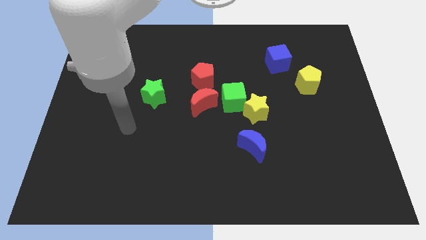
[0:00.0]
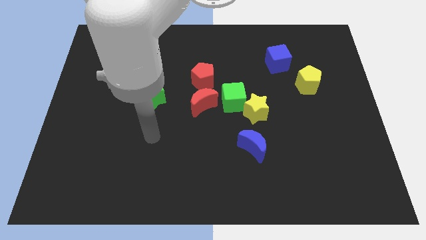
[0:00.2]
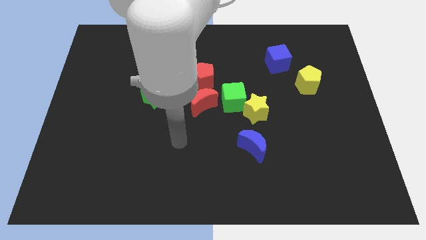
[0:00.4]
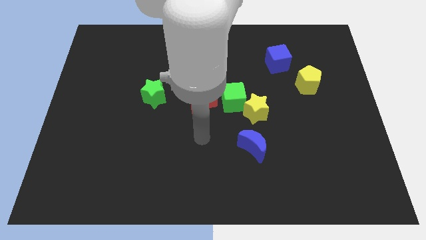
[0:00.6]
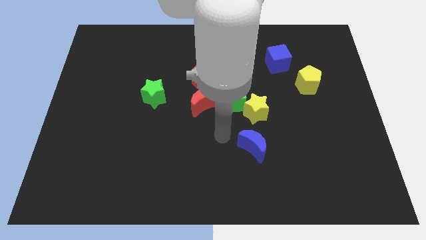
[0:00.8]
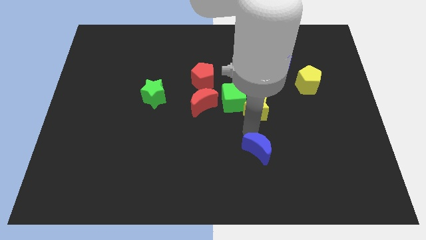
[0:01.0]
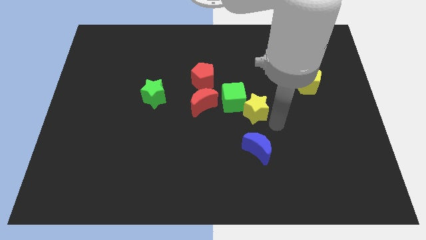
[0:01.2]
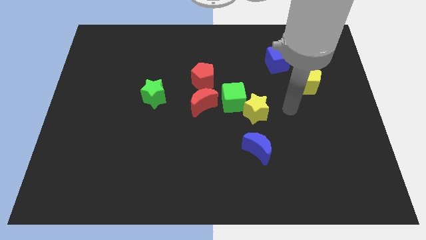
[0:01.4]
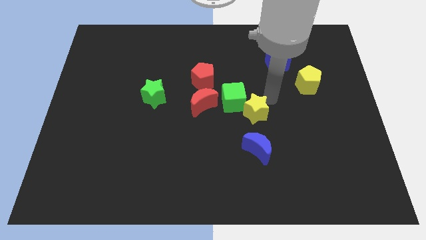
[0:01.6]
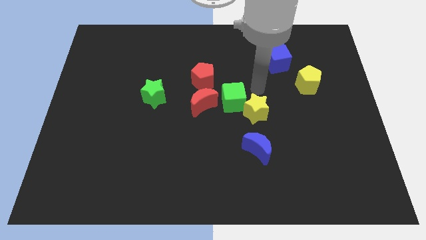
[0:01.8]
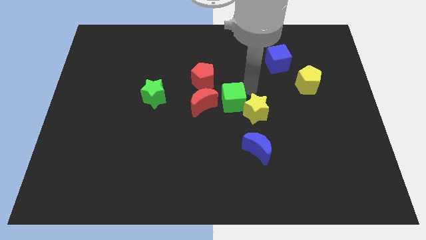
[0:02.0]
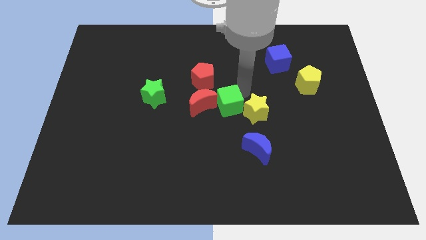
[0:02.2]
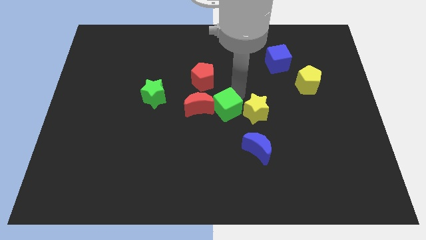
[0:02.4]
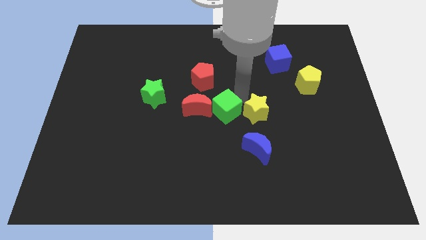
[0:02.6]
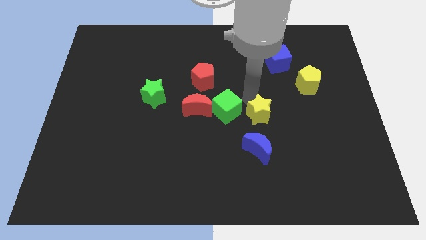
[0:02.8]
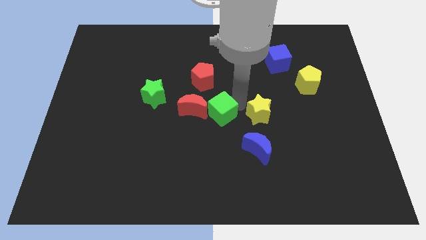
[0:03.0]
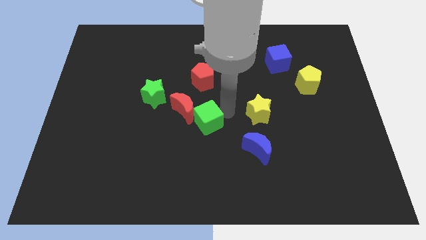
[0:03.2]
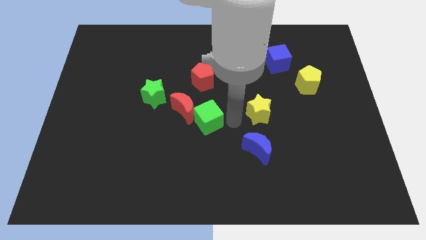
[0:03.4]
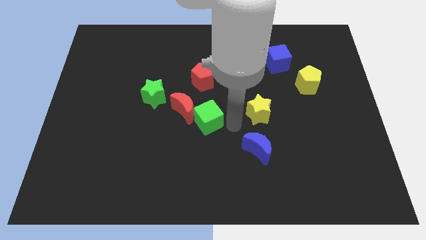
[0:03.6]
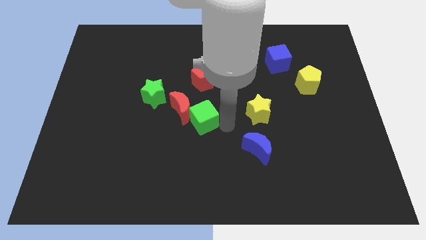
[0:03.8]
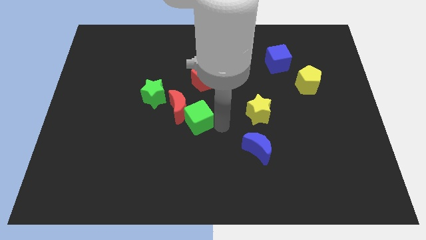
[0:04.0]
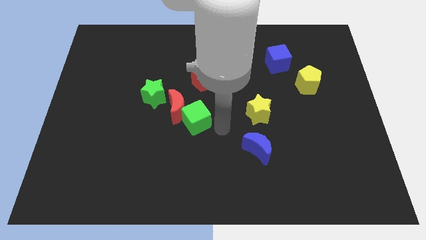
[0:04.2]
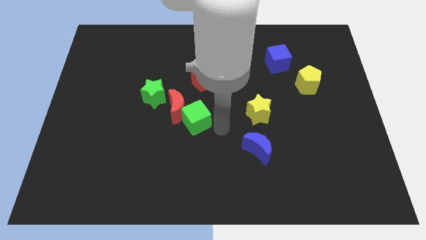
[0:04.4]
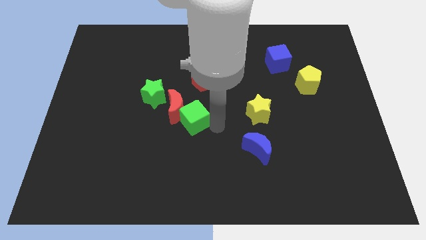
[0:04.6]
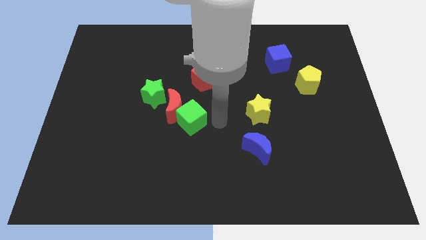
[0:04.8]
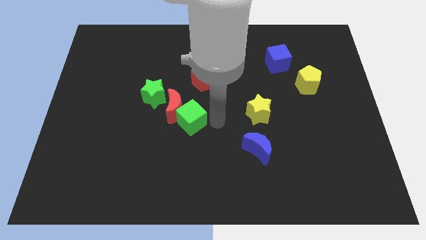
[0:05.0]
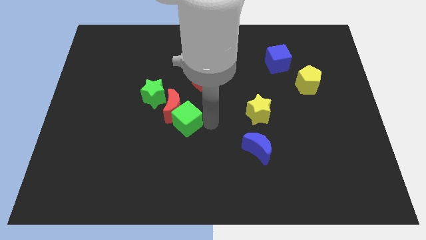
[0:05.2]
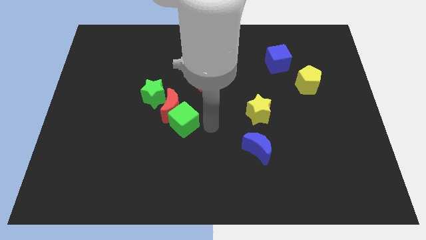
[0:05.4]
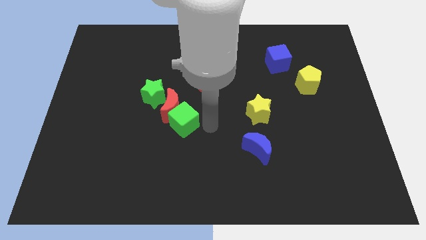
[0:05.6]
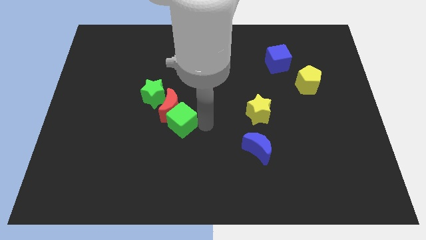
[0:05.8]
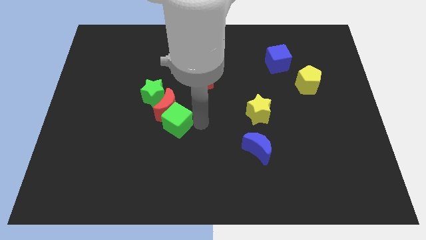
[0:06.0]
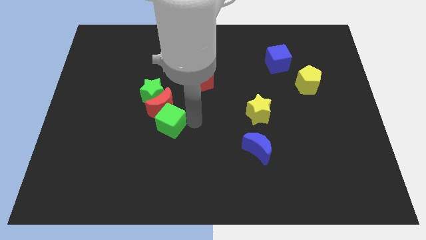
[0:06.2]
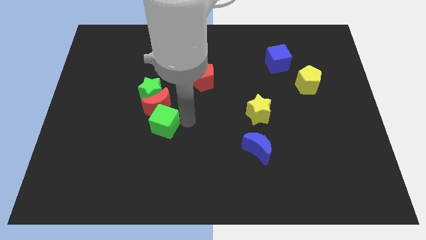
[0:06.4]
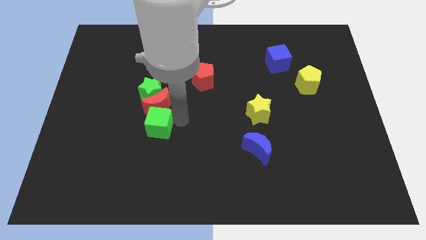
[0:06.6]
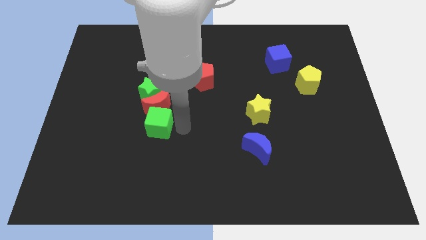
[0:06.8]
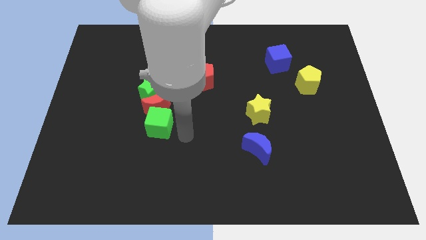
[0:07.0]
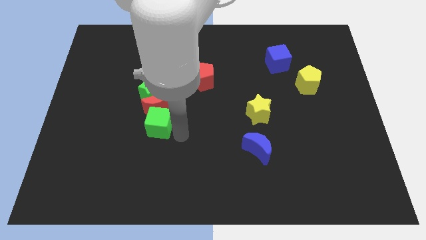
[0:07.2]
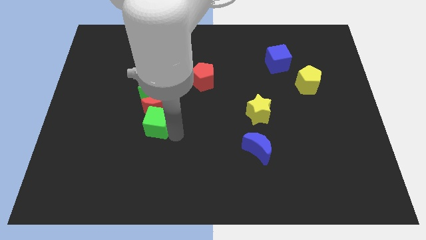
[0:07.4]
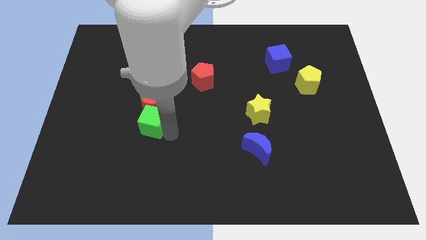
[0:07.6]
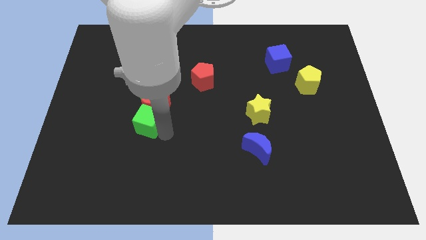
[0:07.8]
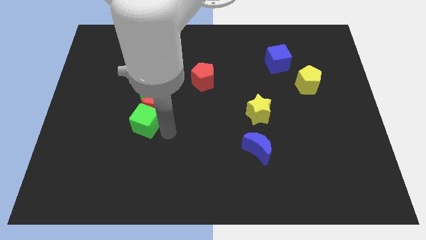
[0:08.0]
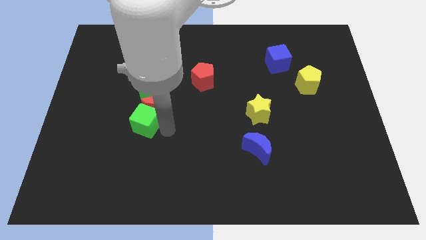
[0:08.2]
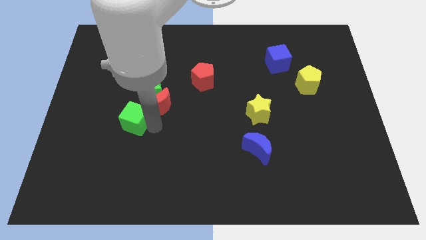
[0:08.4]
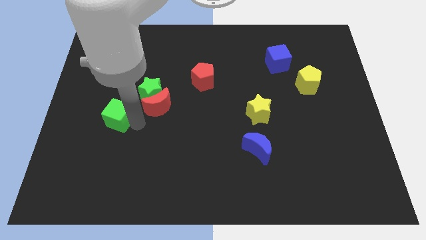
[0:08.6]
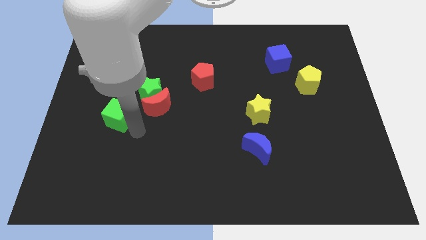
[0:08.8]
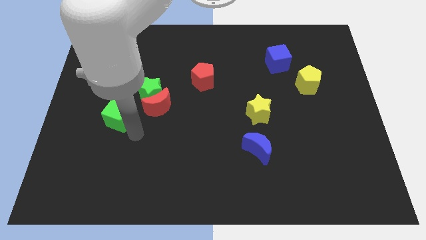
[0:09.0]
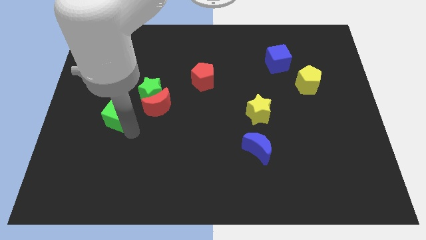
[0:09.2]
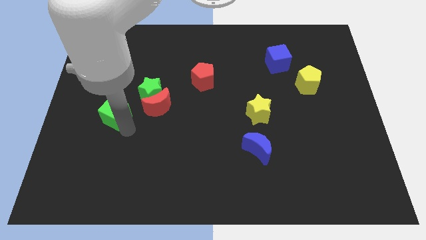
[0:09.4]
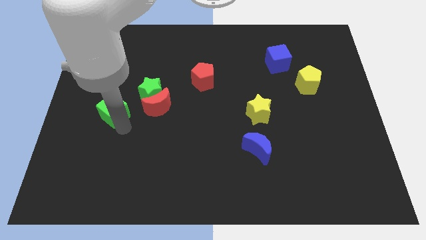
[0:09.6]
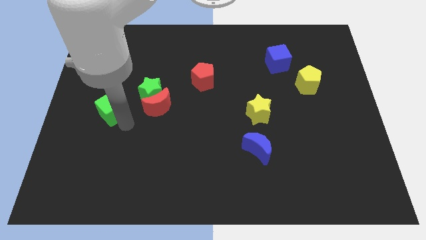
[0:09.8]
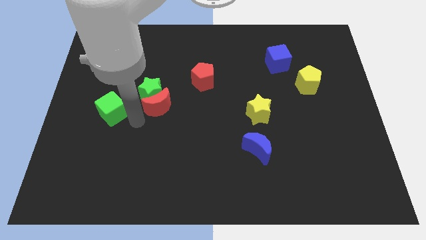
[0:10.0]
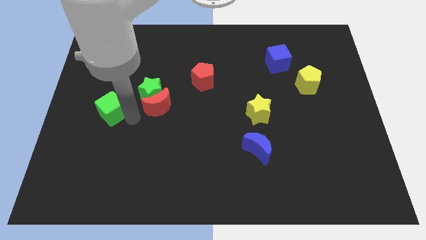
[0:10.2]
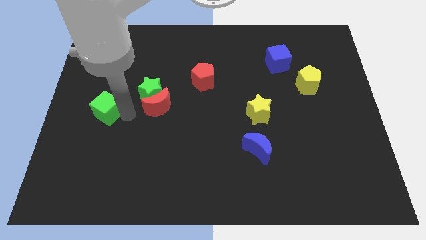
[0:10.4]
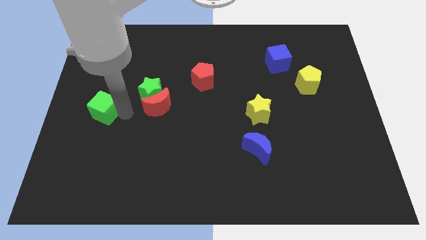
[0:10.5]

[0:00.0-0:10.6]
slide the green cube to the left side of the board

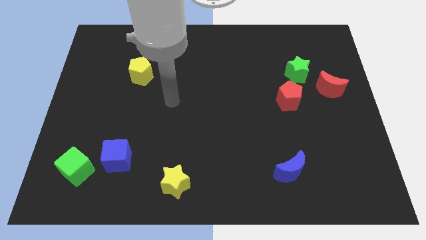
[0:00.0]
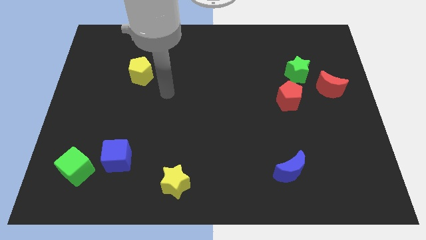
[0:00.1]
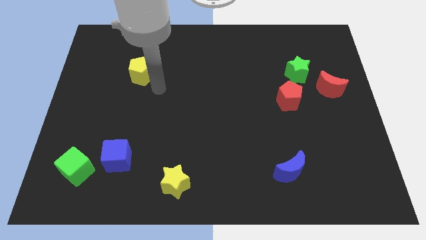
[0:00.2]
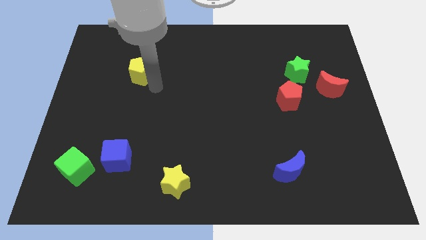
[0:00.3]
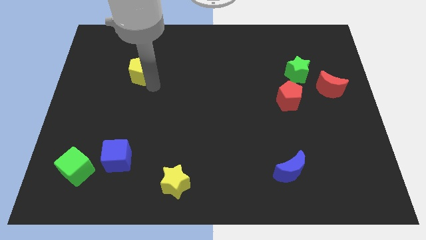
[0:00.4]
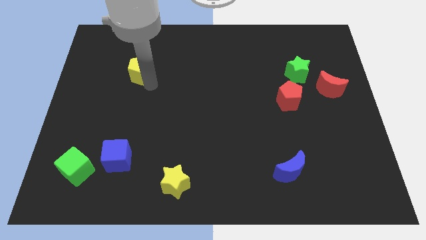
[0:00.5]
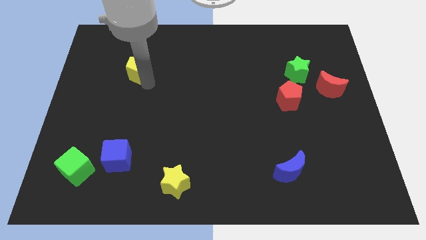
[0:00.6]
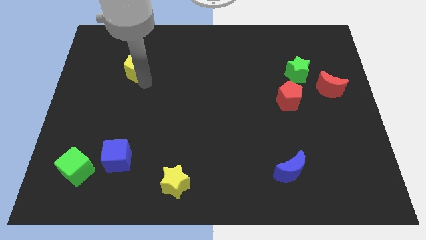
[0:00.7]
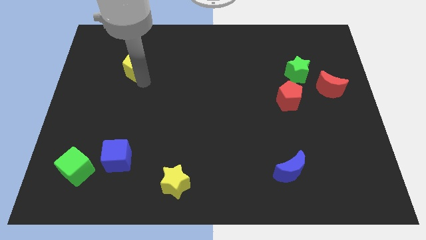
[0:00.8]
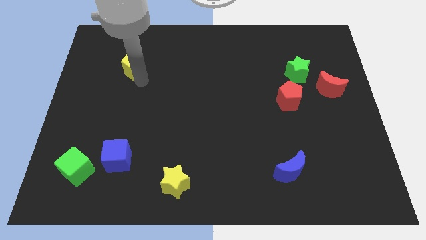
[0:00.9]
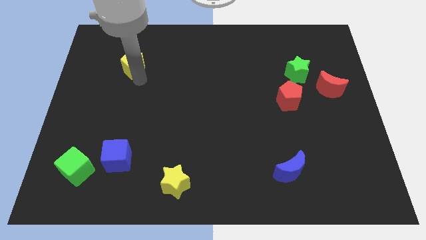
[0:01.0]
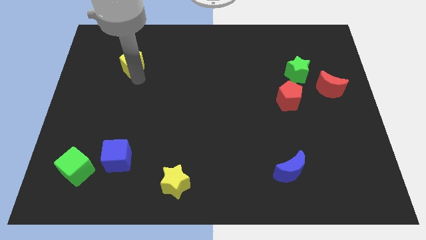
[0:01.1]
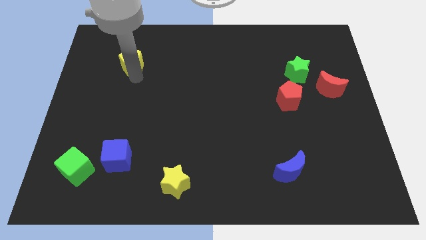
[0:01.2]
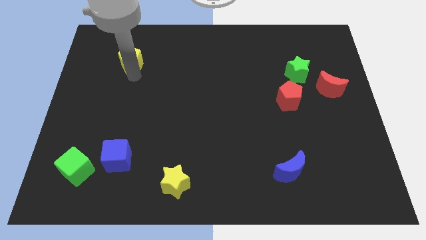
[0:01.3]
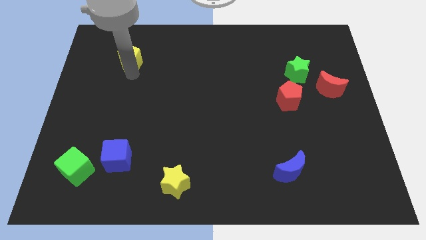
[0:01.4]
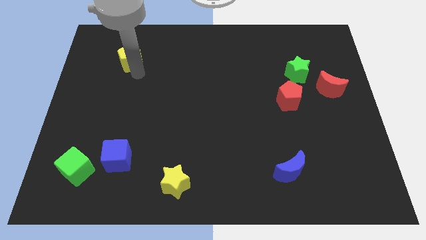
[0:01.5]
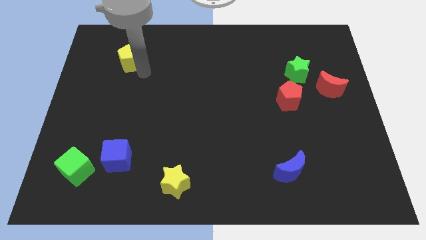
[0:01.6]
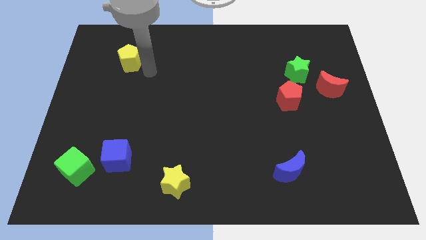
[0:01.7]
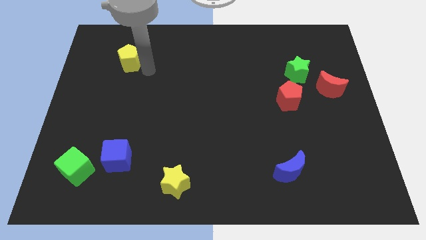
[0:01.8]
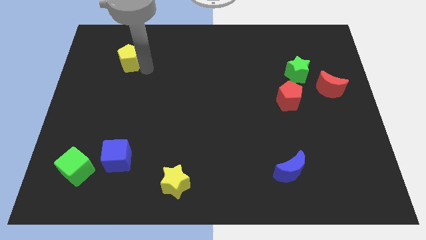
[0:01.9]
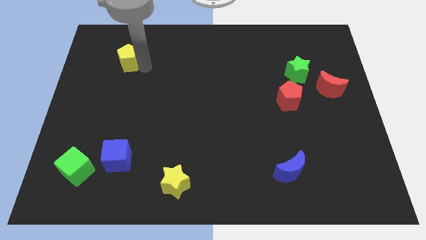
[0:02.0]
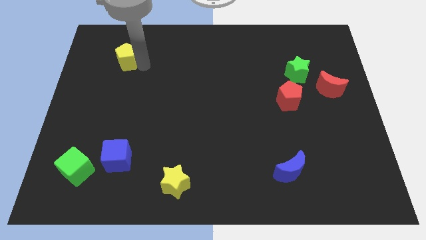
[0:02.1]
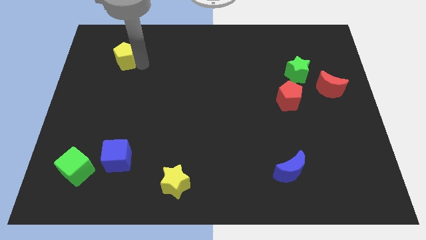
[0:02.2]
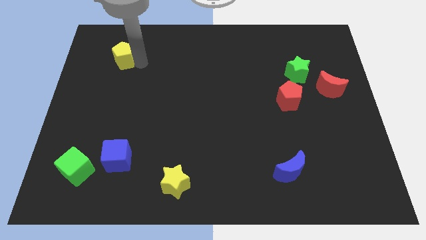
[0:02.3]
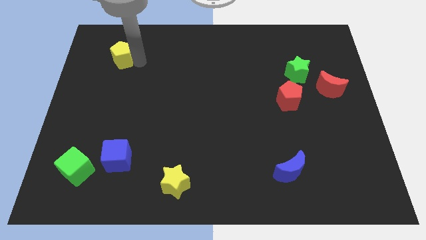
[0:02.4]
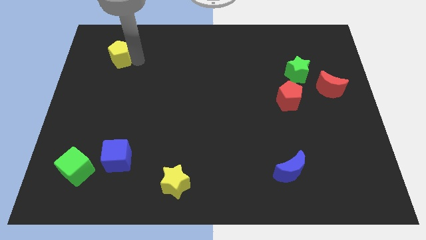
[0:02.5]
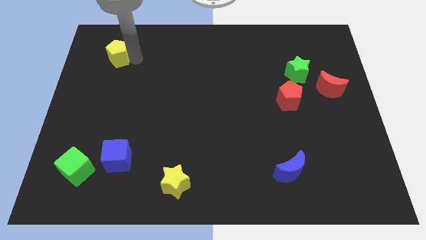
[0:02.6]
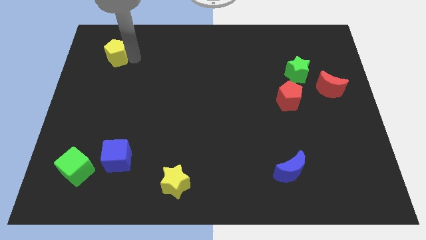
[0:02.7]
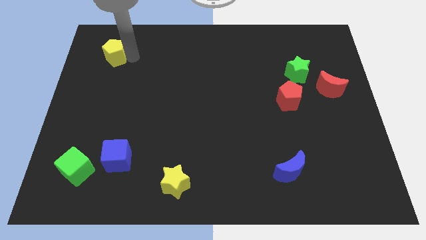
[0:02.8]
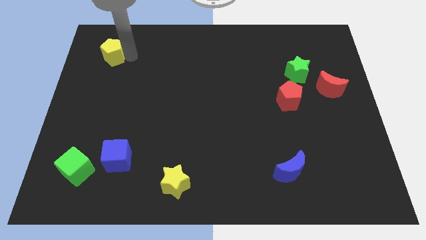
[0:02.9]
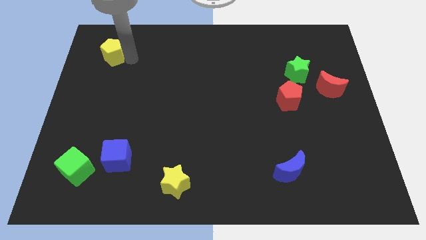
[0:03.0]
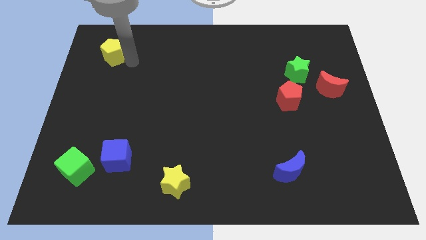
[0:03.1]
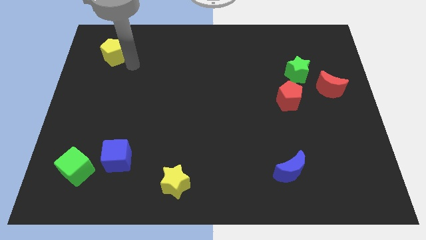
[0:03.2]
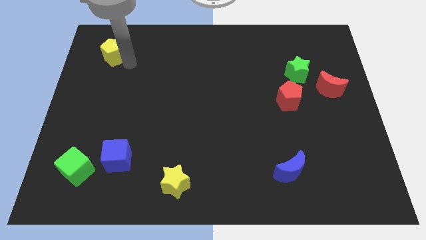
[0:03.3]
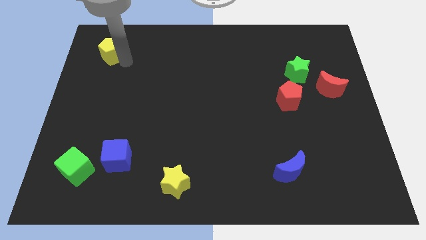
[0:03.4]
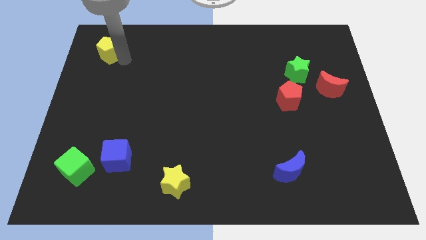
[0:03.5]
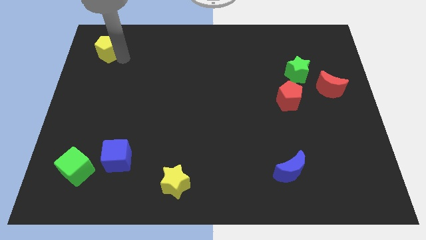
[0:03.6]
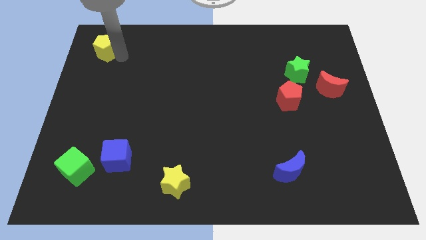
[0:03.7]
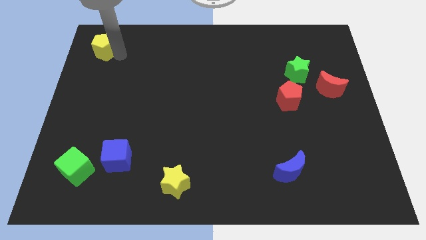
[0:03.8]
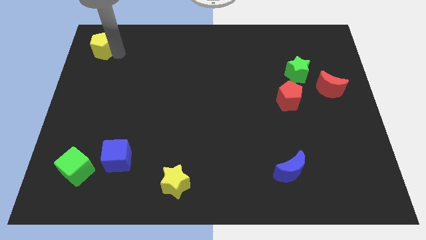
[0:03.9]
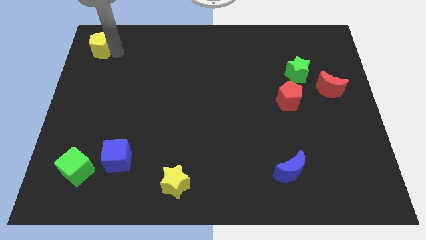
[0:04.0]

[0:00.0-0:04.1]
push the yellow pentagon to the top left of the board
